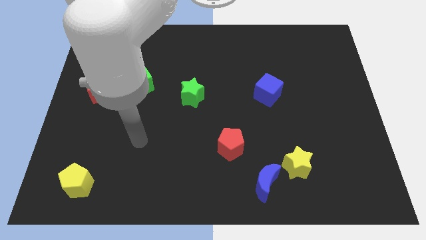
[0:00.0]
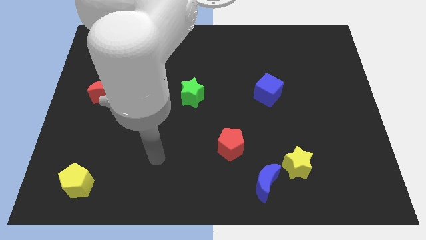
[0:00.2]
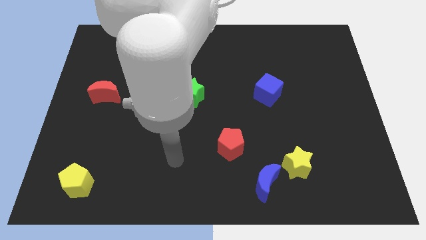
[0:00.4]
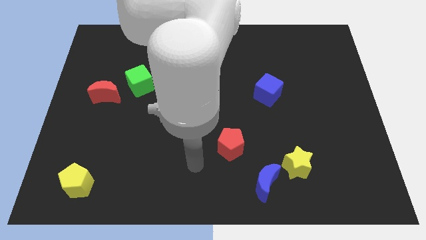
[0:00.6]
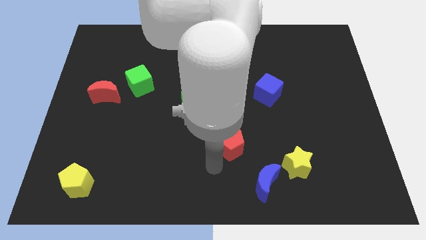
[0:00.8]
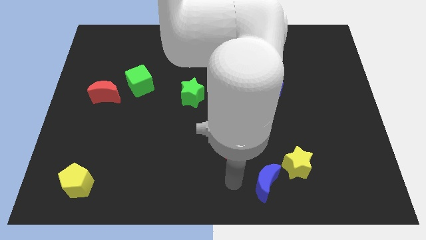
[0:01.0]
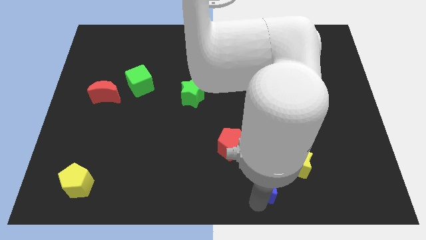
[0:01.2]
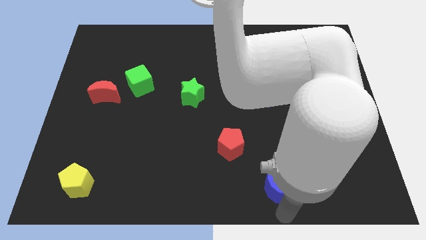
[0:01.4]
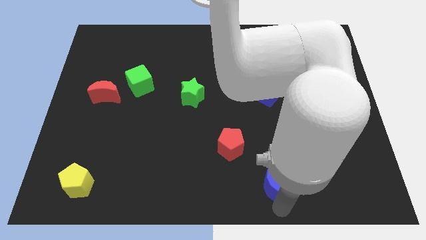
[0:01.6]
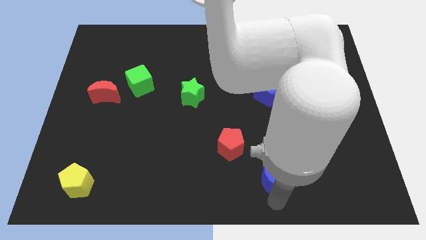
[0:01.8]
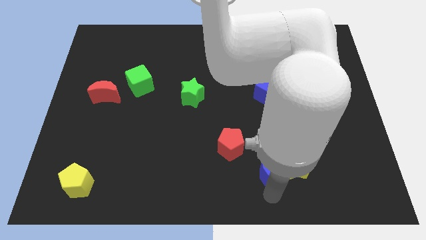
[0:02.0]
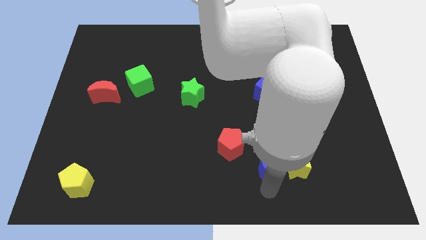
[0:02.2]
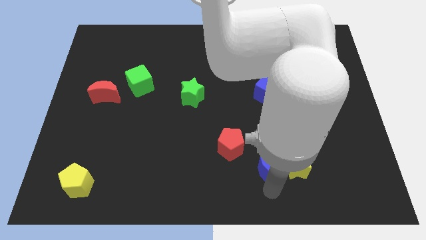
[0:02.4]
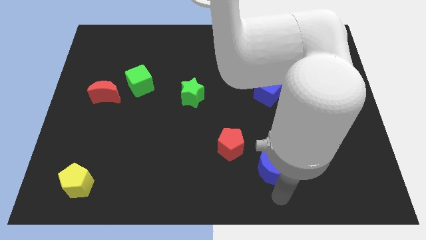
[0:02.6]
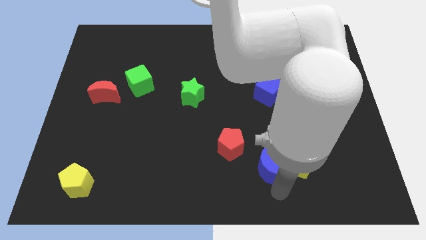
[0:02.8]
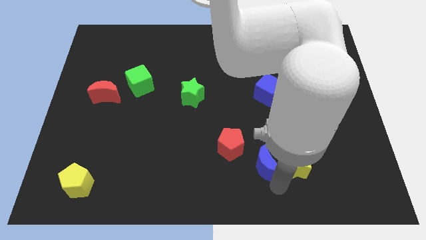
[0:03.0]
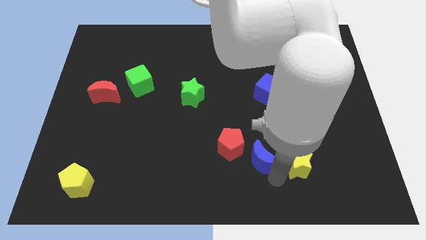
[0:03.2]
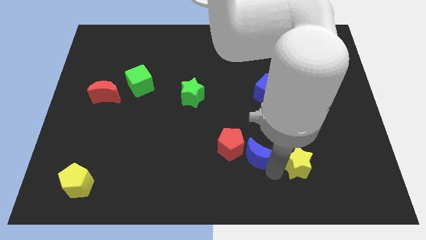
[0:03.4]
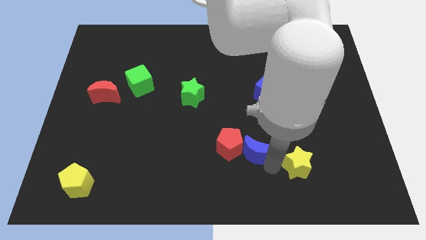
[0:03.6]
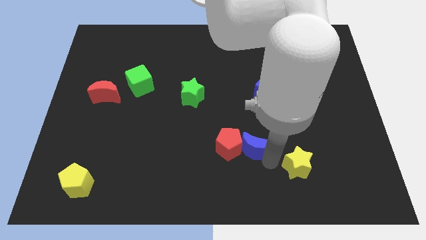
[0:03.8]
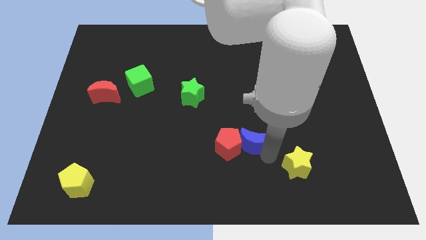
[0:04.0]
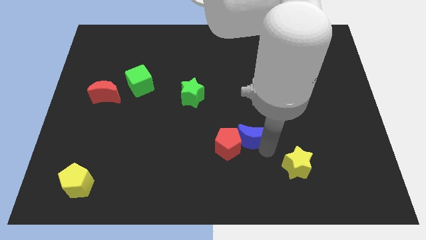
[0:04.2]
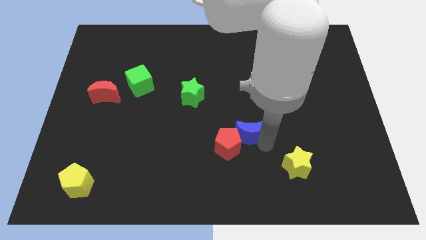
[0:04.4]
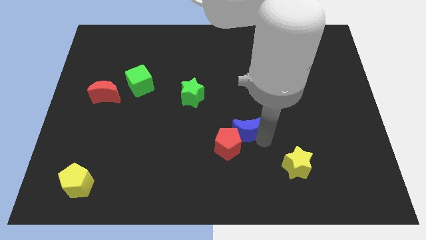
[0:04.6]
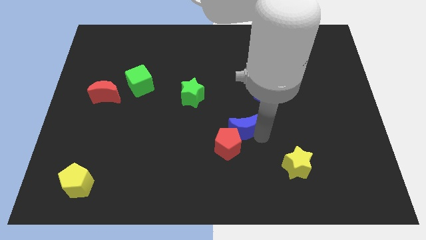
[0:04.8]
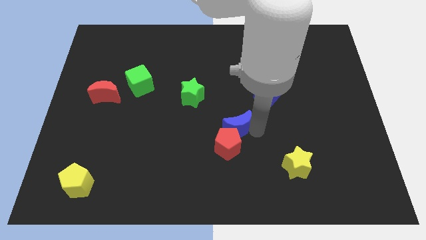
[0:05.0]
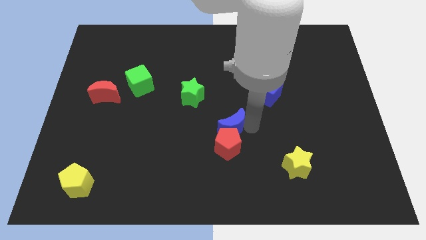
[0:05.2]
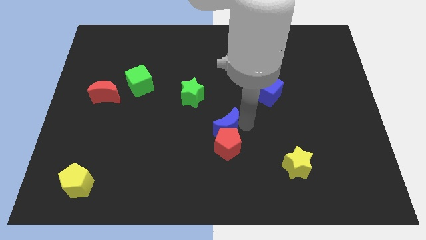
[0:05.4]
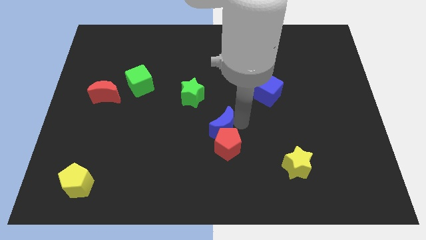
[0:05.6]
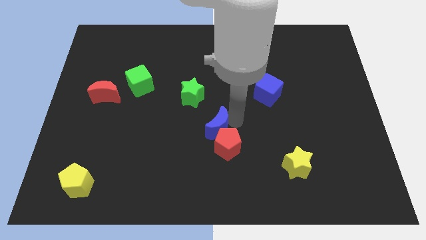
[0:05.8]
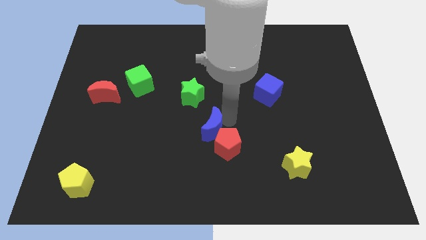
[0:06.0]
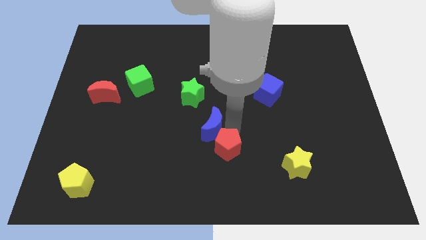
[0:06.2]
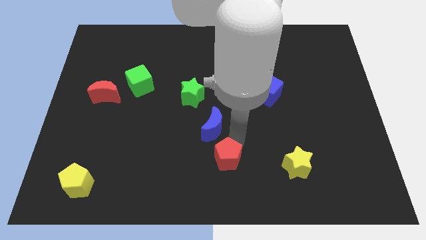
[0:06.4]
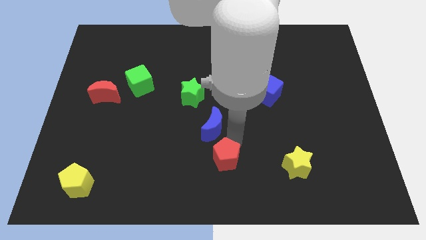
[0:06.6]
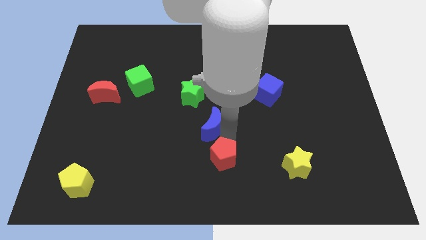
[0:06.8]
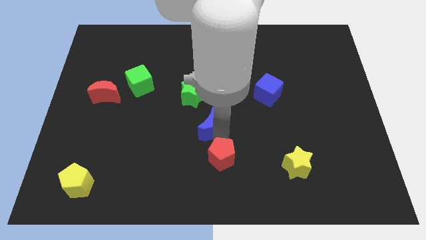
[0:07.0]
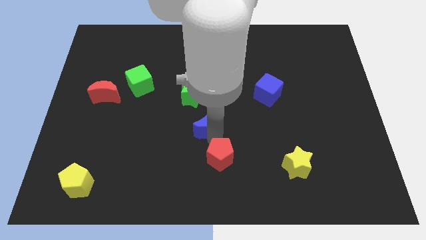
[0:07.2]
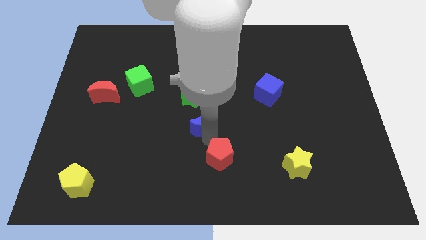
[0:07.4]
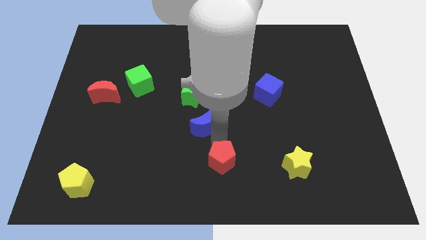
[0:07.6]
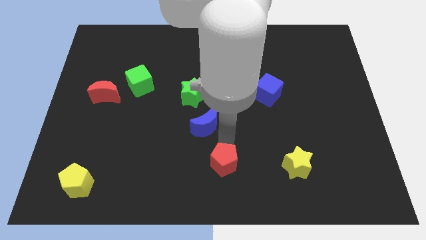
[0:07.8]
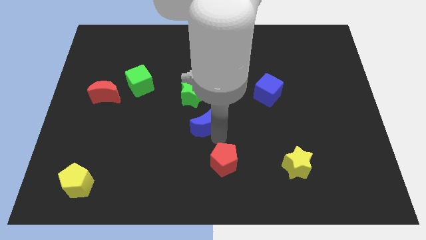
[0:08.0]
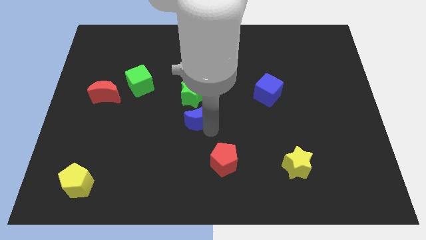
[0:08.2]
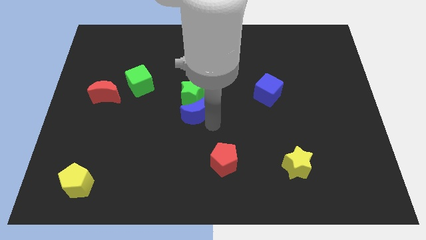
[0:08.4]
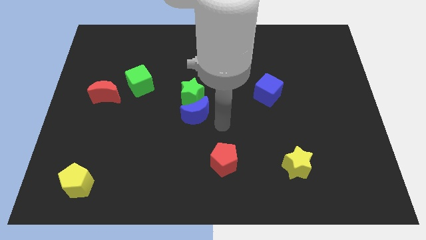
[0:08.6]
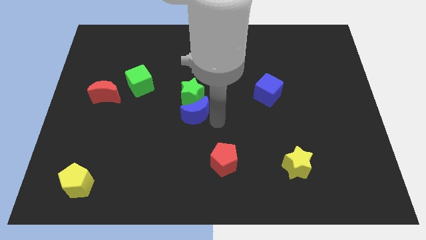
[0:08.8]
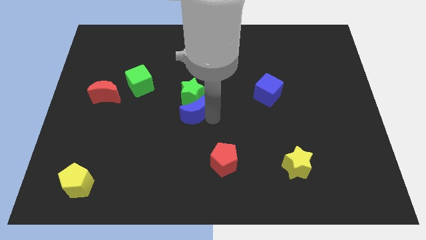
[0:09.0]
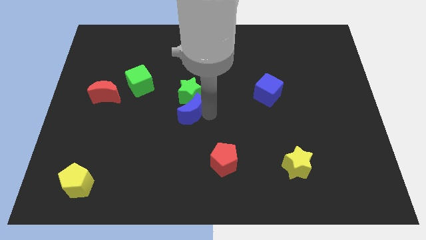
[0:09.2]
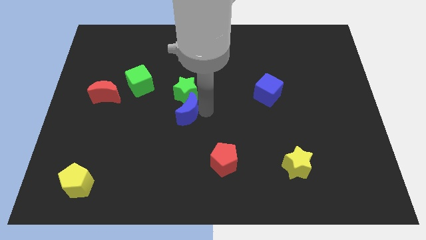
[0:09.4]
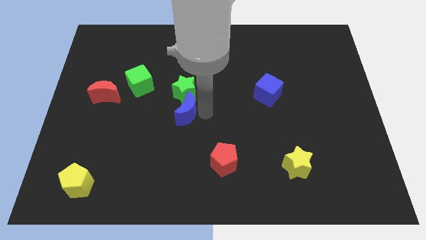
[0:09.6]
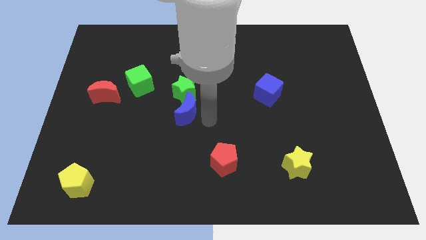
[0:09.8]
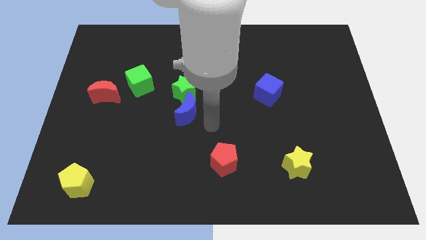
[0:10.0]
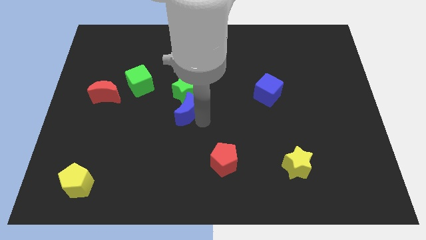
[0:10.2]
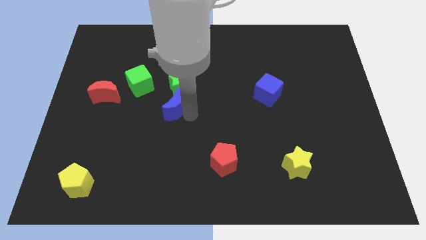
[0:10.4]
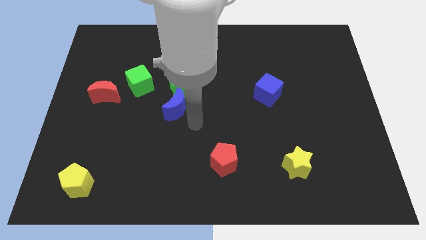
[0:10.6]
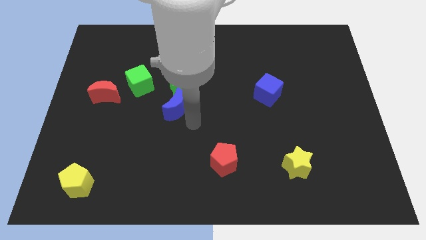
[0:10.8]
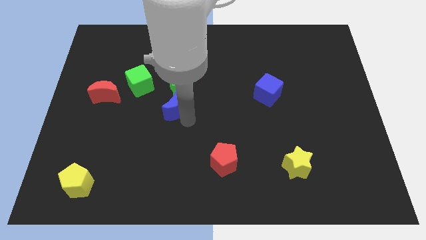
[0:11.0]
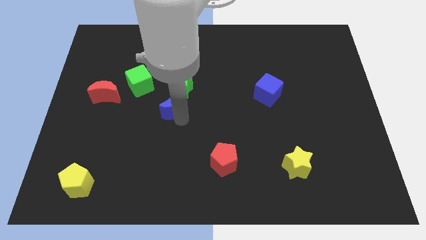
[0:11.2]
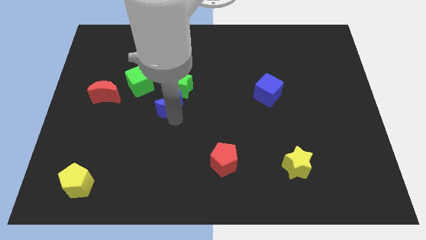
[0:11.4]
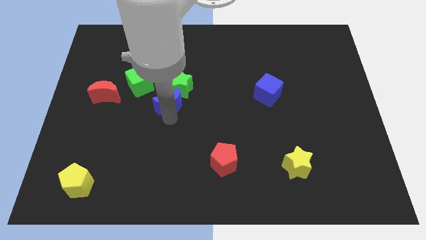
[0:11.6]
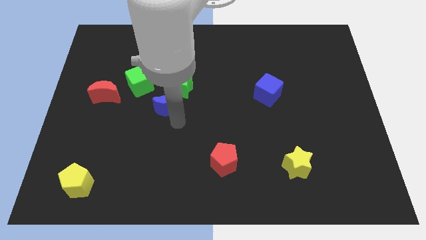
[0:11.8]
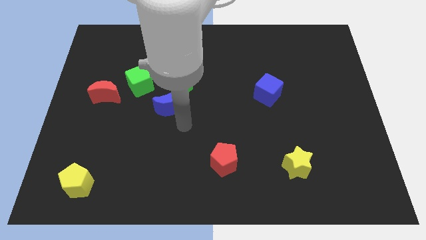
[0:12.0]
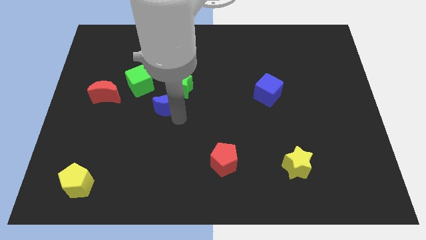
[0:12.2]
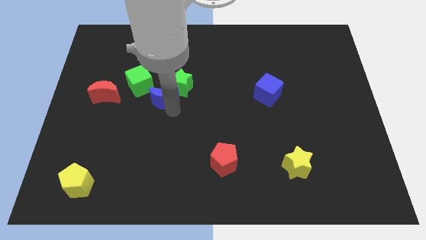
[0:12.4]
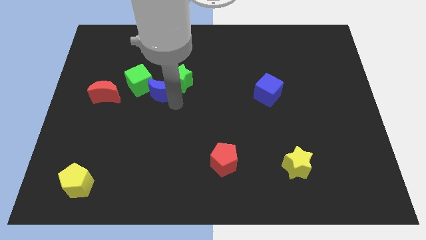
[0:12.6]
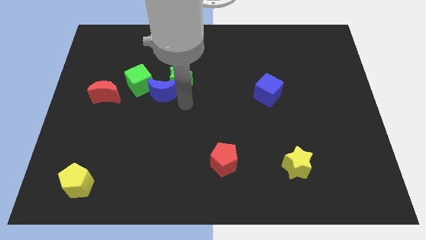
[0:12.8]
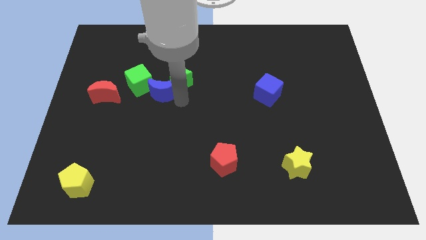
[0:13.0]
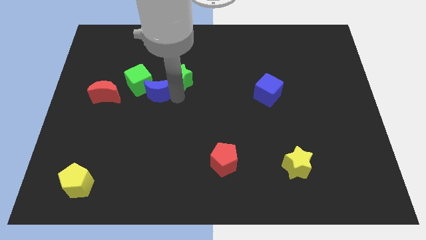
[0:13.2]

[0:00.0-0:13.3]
put the blue moon next to the green cube

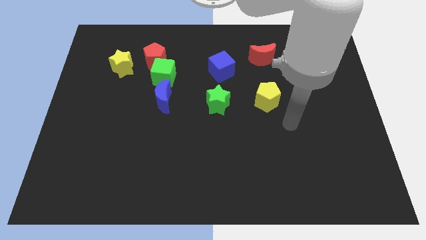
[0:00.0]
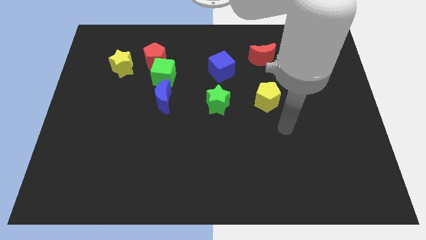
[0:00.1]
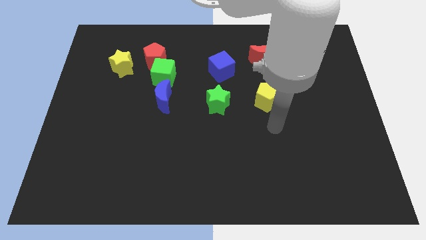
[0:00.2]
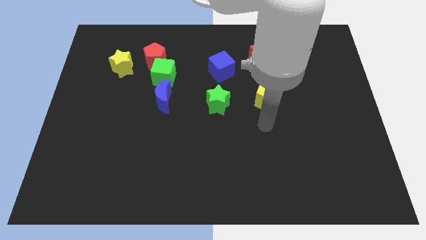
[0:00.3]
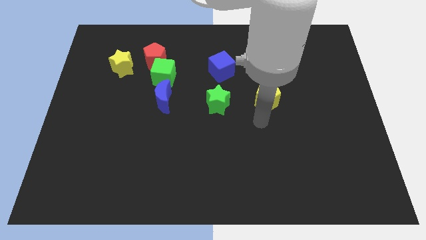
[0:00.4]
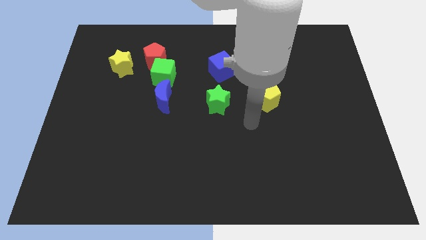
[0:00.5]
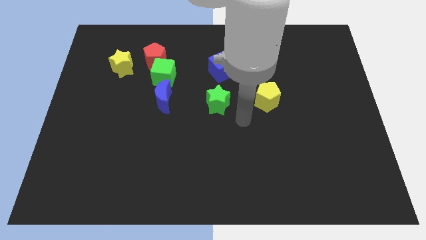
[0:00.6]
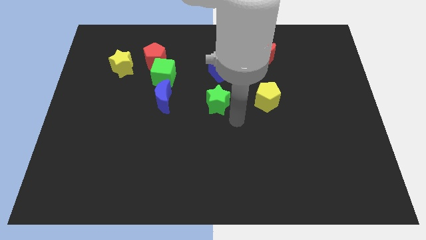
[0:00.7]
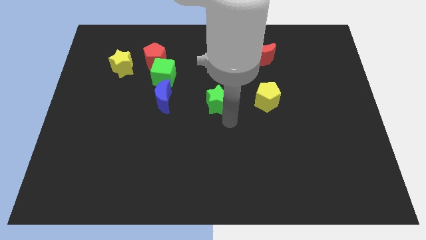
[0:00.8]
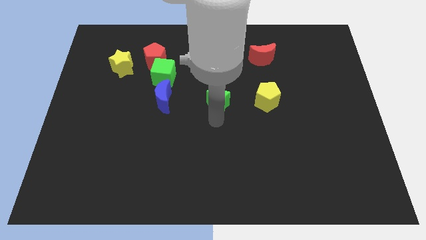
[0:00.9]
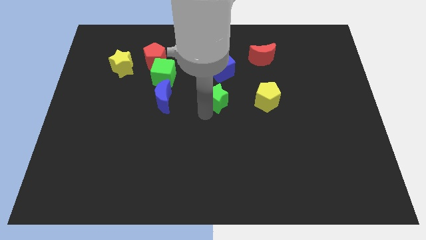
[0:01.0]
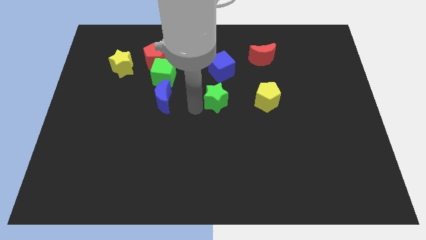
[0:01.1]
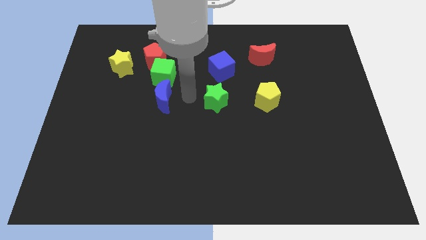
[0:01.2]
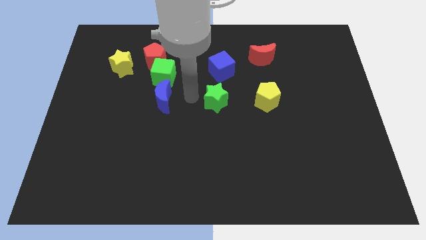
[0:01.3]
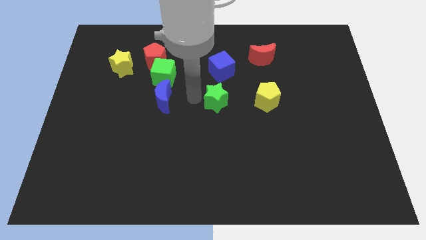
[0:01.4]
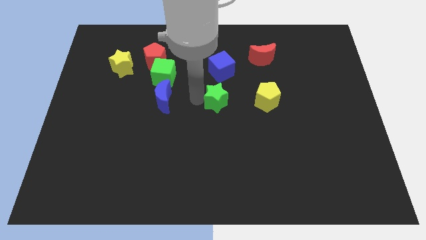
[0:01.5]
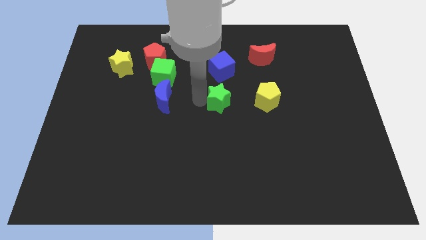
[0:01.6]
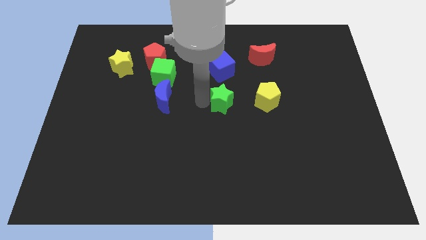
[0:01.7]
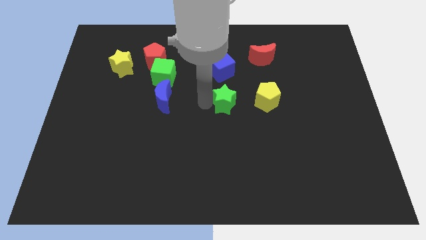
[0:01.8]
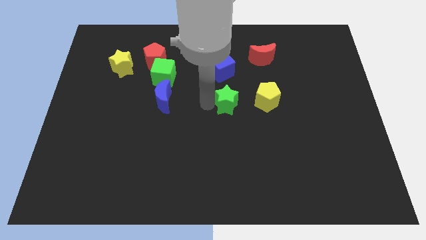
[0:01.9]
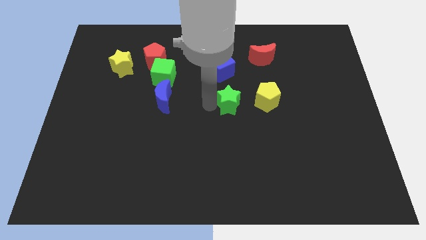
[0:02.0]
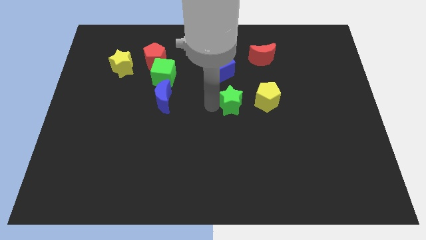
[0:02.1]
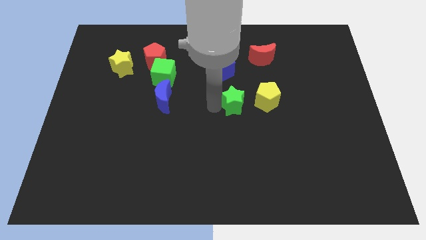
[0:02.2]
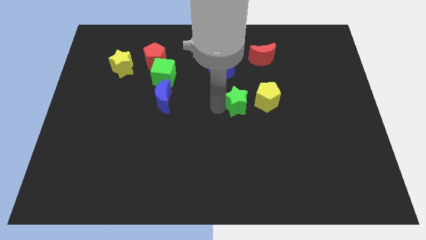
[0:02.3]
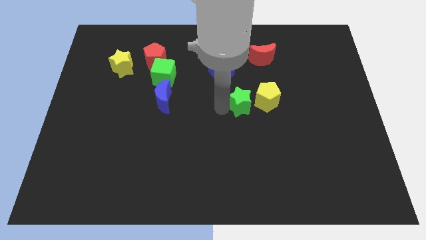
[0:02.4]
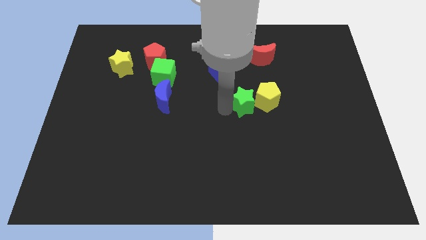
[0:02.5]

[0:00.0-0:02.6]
move the green star to the yellow pentagon
